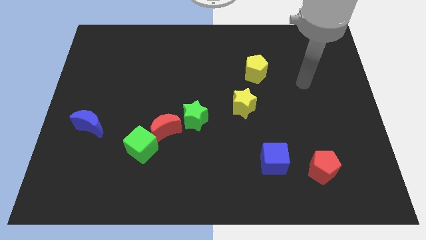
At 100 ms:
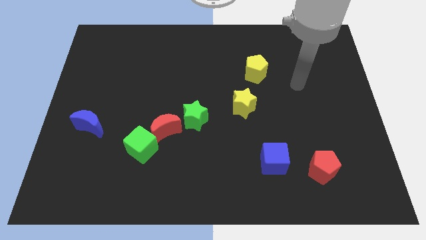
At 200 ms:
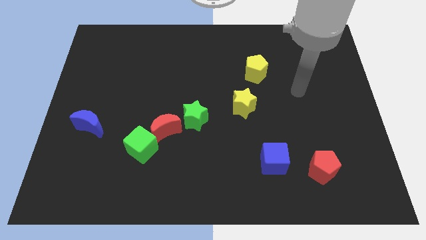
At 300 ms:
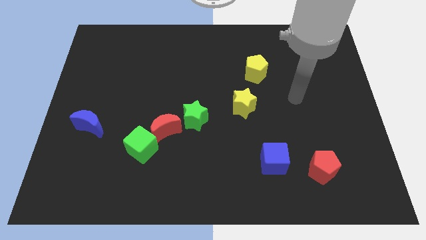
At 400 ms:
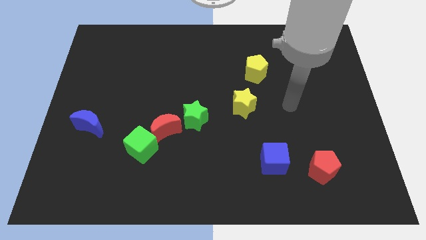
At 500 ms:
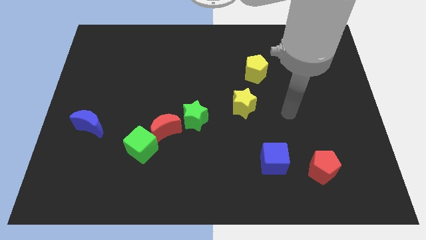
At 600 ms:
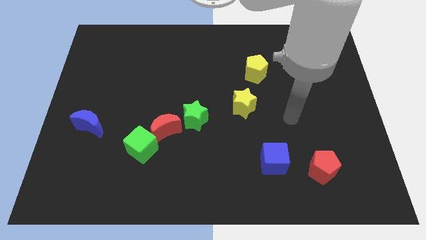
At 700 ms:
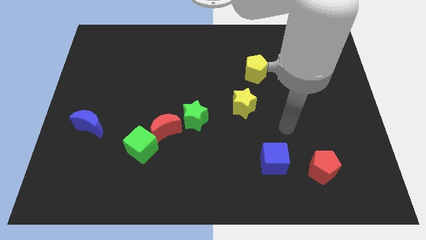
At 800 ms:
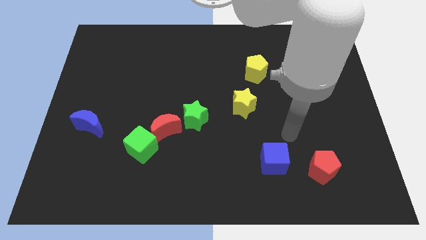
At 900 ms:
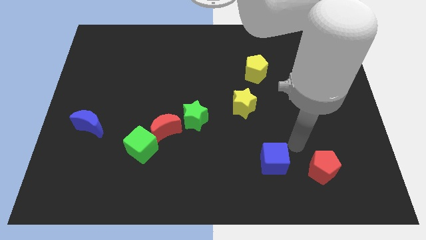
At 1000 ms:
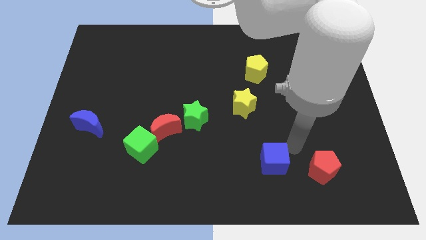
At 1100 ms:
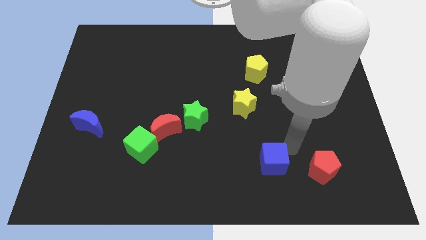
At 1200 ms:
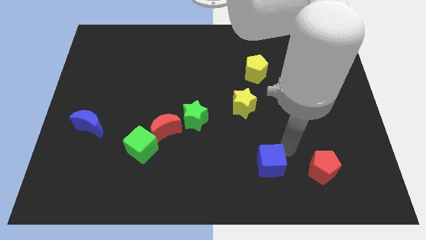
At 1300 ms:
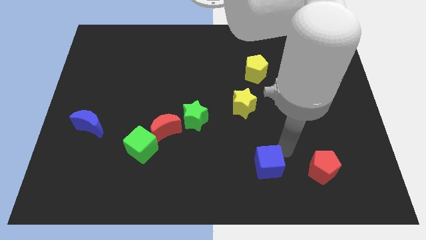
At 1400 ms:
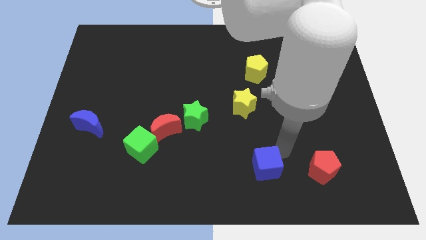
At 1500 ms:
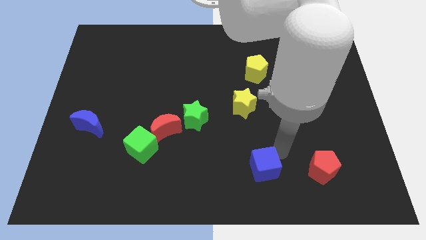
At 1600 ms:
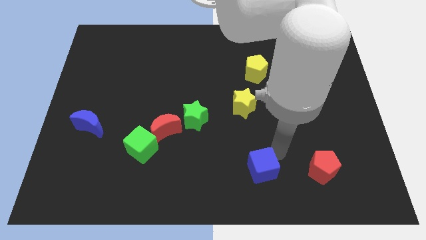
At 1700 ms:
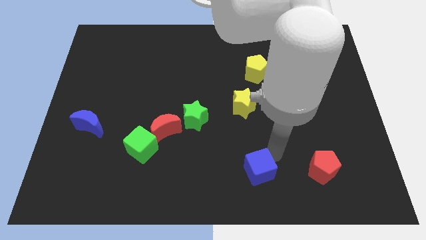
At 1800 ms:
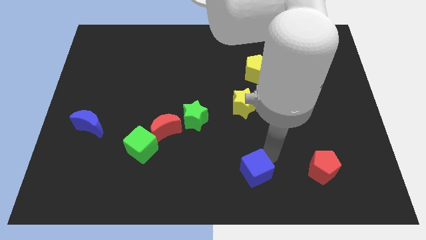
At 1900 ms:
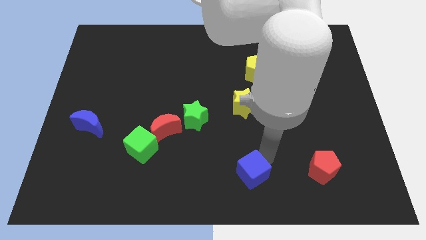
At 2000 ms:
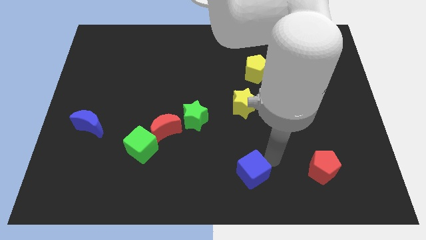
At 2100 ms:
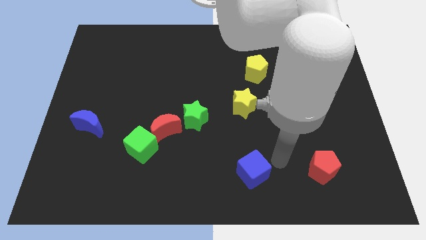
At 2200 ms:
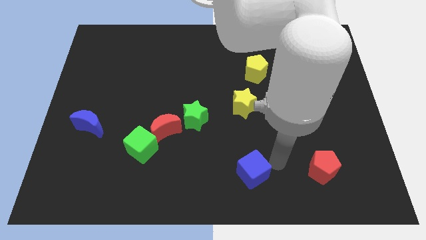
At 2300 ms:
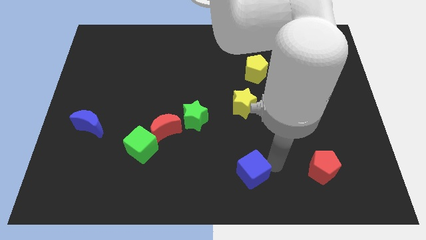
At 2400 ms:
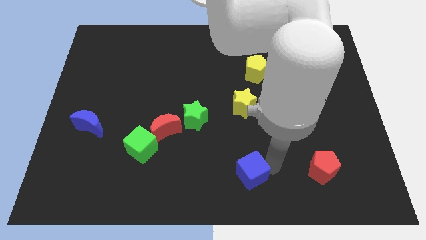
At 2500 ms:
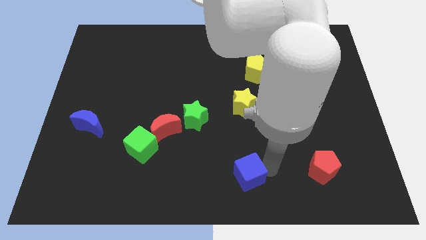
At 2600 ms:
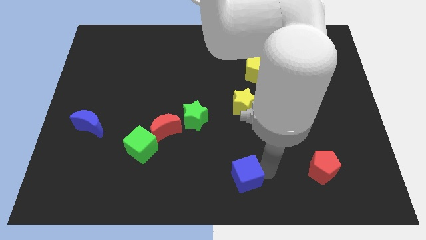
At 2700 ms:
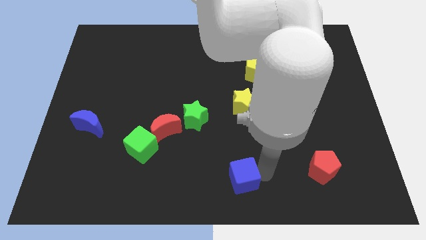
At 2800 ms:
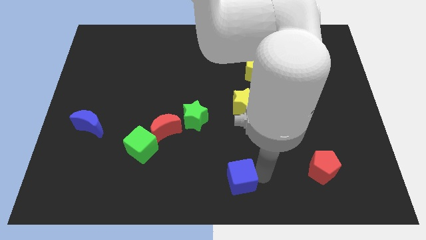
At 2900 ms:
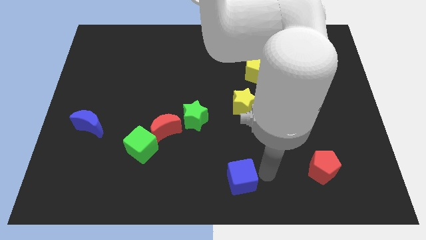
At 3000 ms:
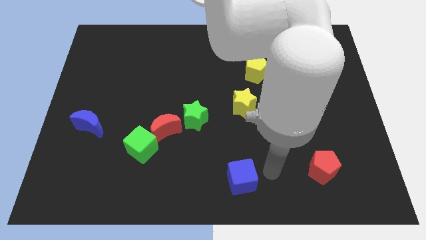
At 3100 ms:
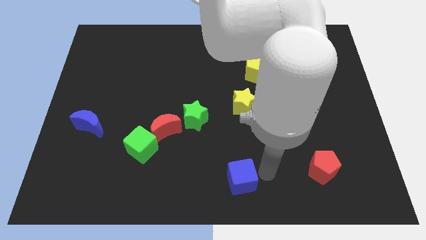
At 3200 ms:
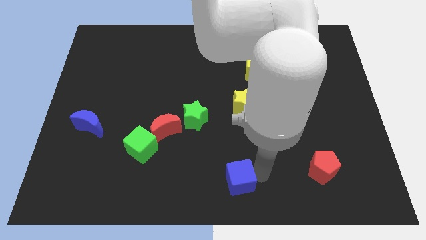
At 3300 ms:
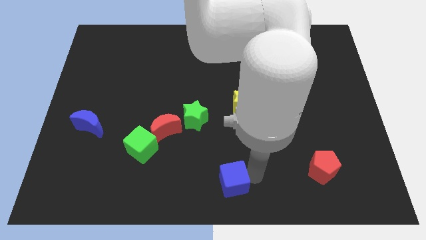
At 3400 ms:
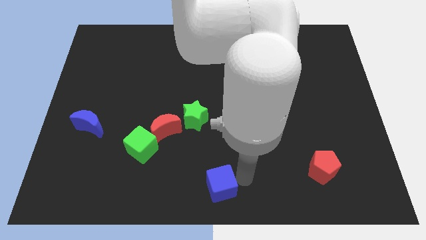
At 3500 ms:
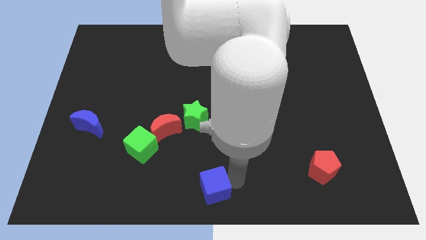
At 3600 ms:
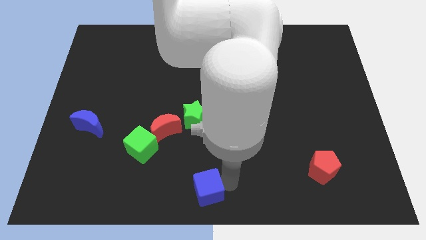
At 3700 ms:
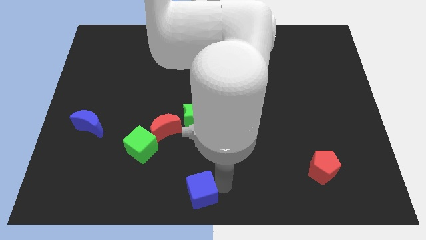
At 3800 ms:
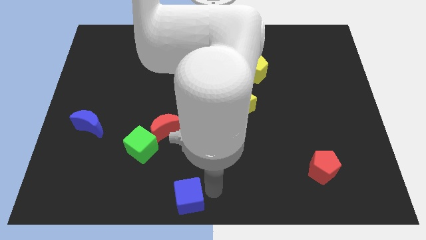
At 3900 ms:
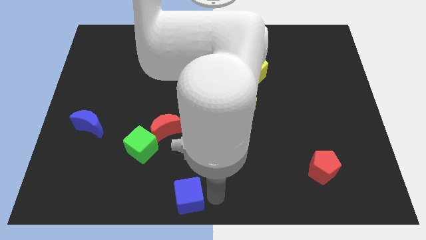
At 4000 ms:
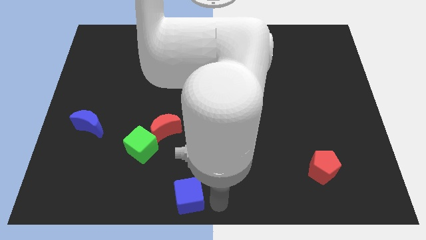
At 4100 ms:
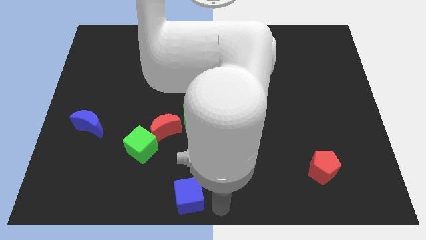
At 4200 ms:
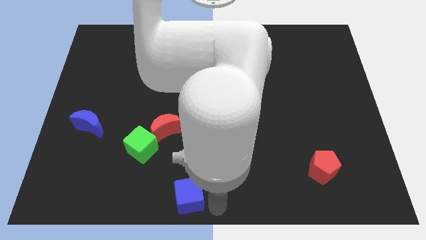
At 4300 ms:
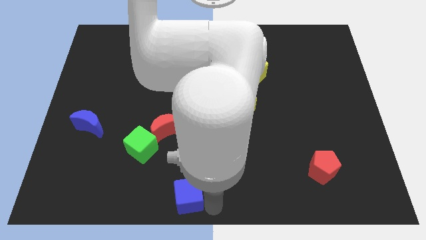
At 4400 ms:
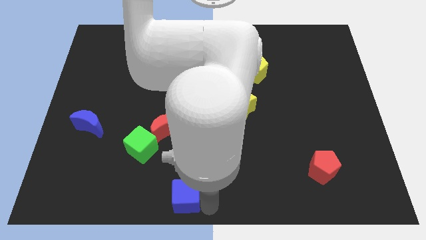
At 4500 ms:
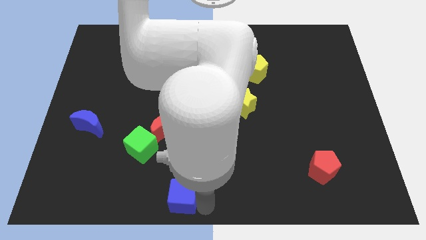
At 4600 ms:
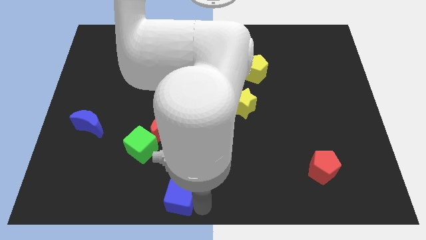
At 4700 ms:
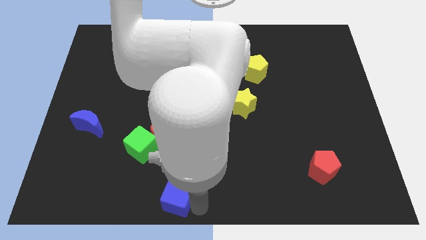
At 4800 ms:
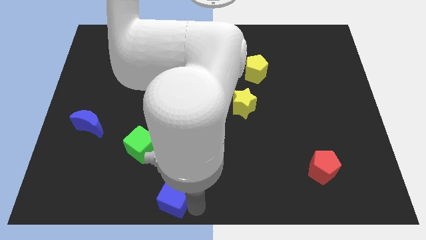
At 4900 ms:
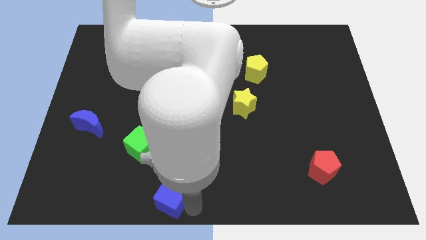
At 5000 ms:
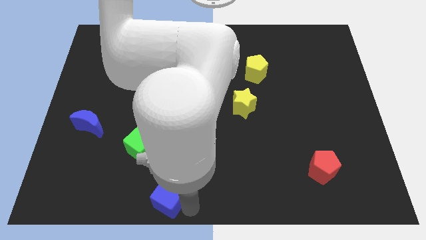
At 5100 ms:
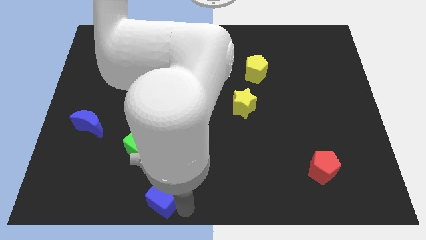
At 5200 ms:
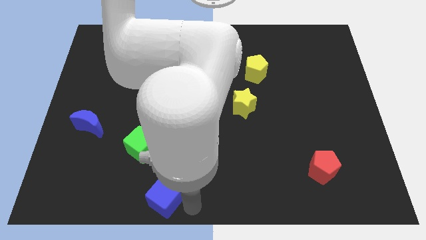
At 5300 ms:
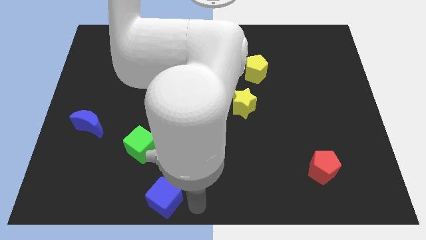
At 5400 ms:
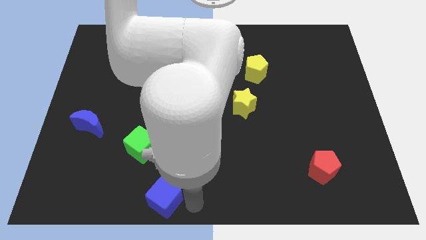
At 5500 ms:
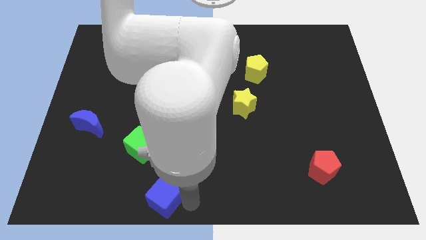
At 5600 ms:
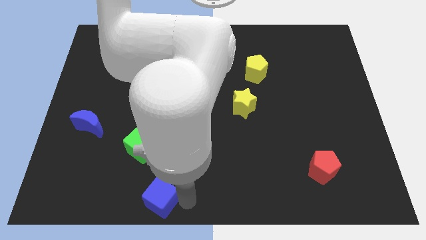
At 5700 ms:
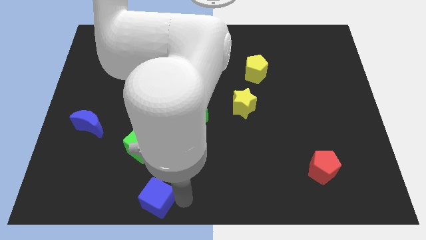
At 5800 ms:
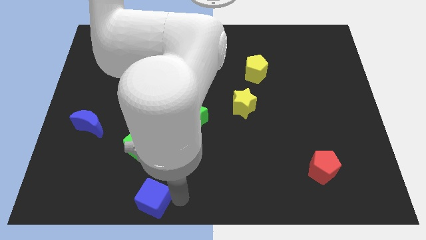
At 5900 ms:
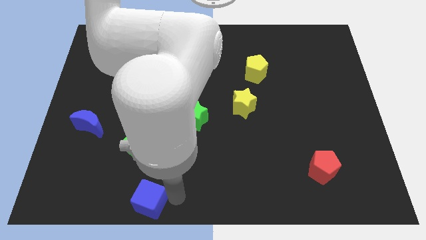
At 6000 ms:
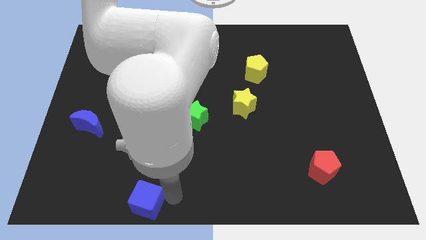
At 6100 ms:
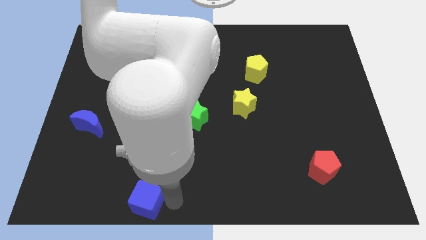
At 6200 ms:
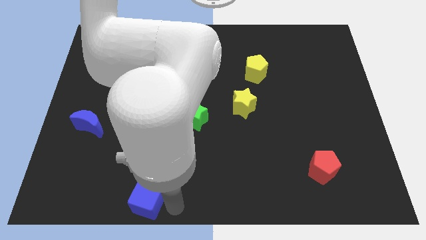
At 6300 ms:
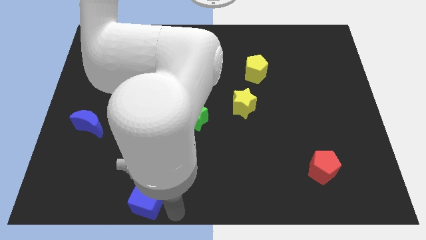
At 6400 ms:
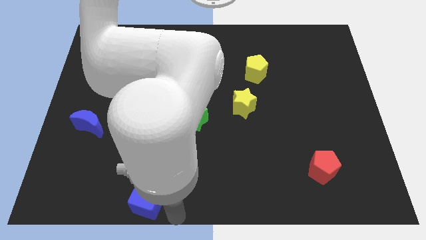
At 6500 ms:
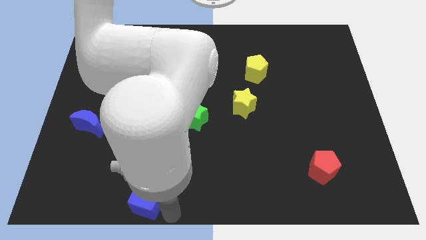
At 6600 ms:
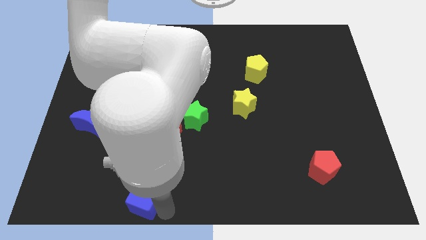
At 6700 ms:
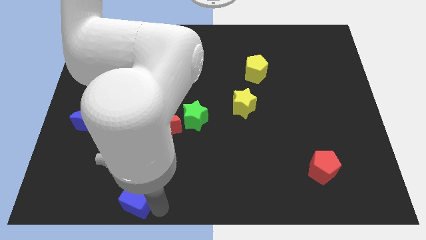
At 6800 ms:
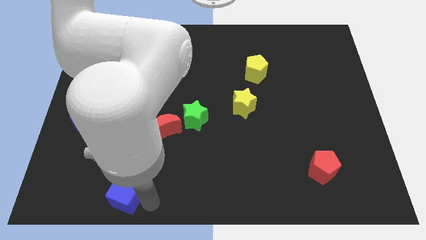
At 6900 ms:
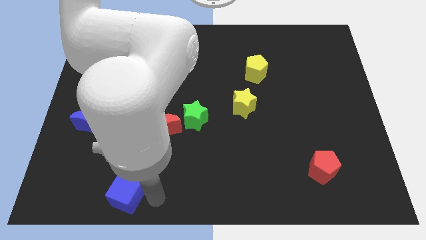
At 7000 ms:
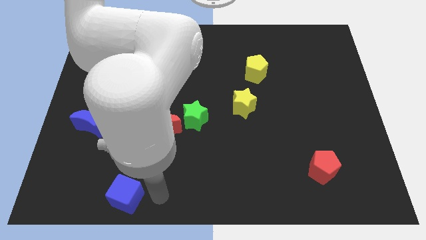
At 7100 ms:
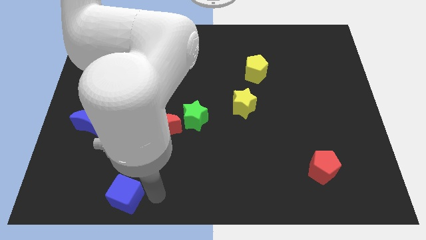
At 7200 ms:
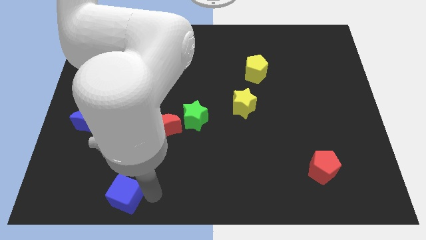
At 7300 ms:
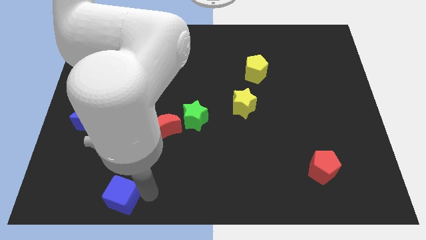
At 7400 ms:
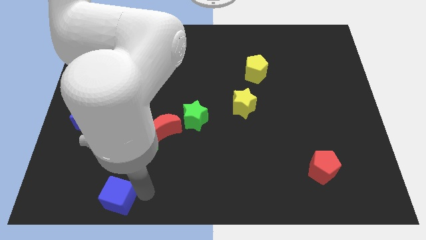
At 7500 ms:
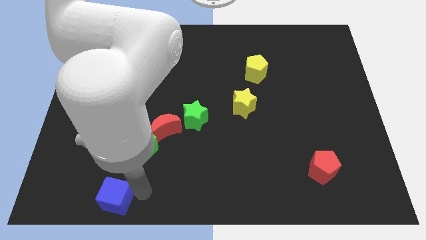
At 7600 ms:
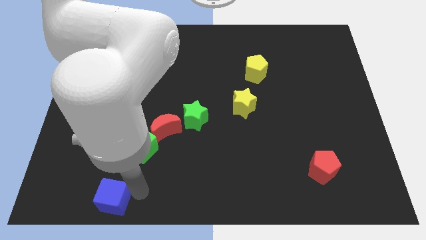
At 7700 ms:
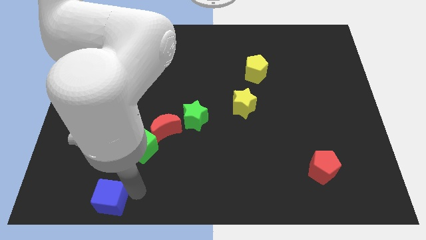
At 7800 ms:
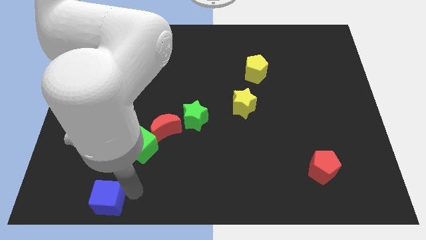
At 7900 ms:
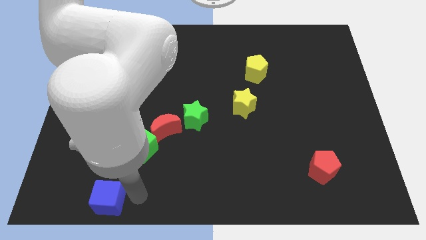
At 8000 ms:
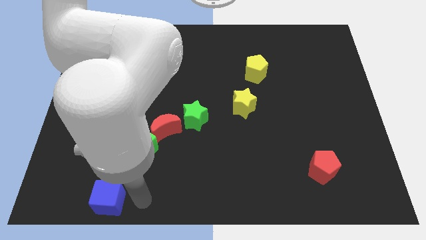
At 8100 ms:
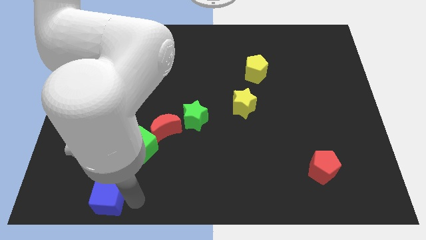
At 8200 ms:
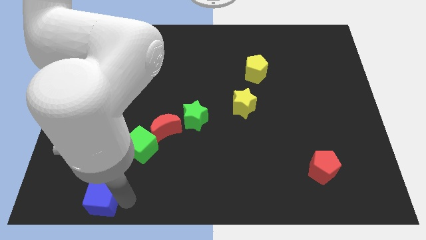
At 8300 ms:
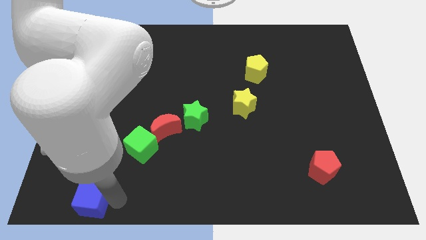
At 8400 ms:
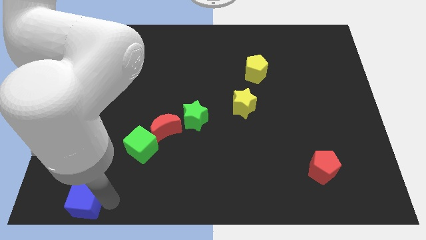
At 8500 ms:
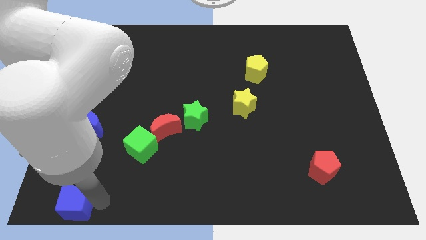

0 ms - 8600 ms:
push the blue cube to the lower left corner
